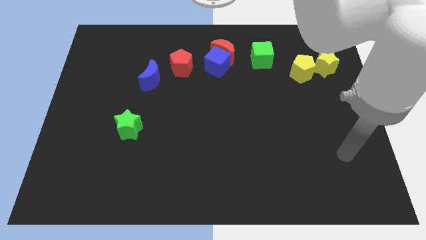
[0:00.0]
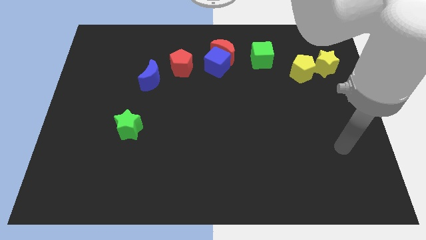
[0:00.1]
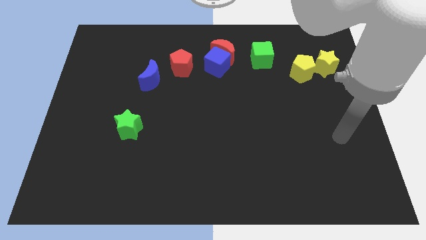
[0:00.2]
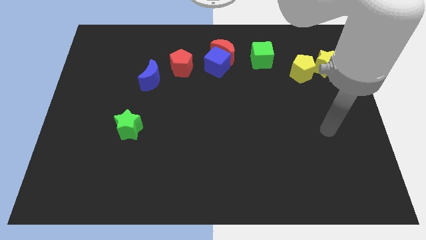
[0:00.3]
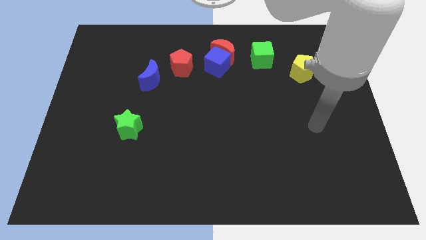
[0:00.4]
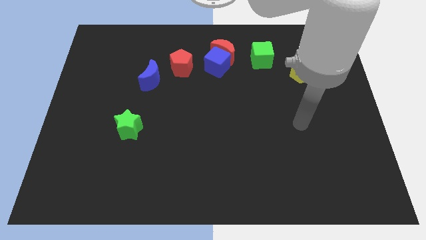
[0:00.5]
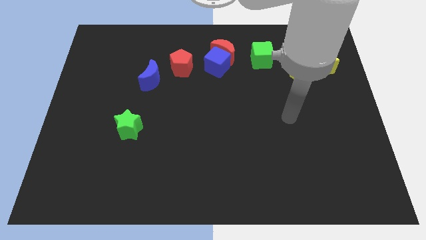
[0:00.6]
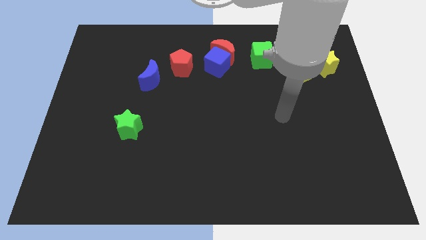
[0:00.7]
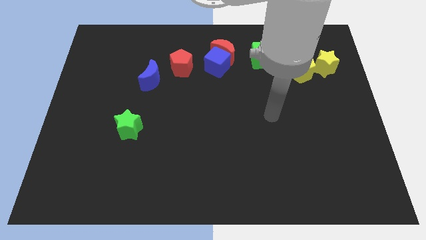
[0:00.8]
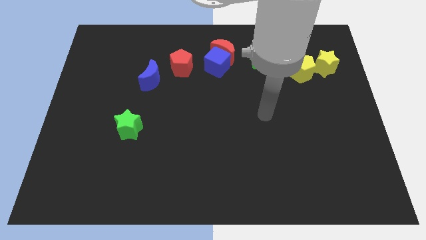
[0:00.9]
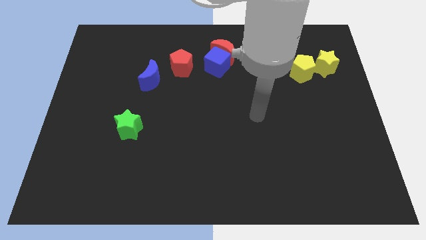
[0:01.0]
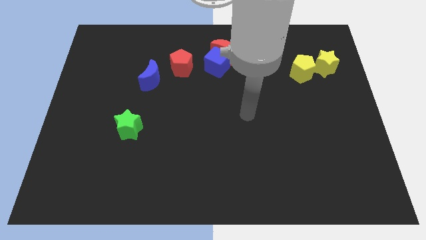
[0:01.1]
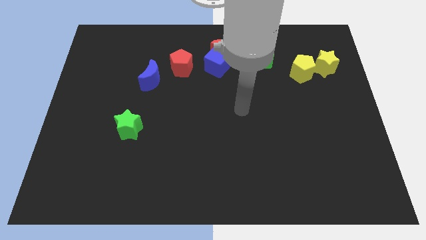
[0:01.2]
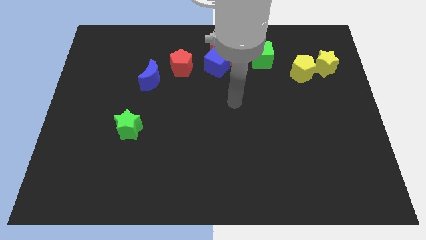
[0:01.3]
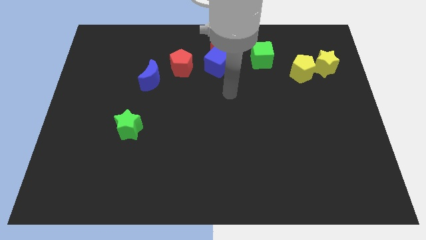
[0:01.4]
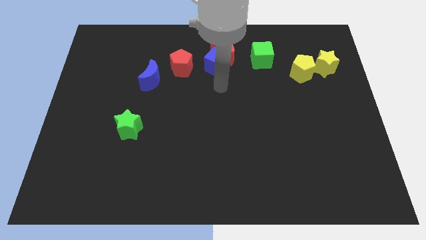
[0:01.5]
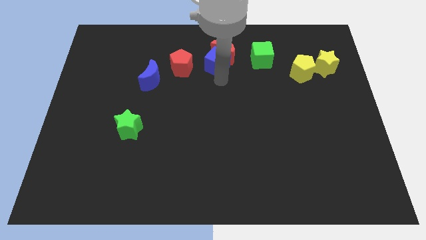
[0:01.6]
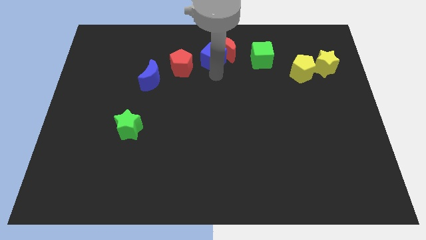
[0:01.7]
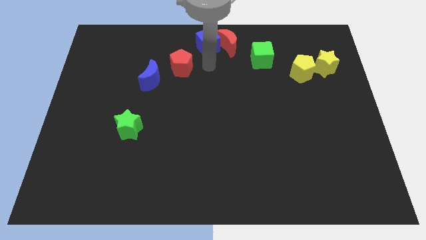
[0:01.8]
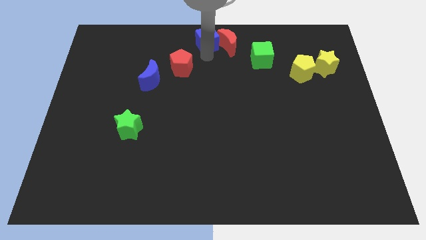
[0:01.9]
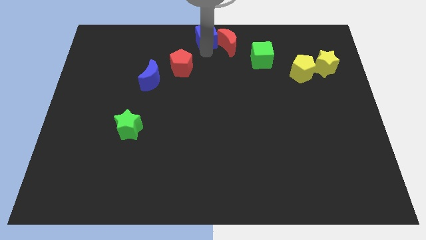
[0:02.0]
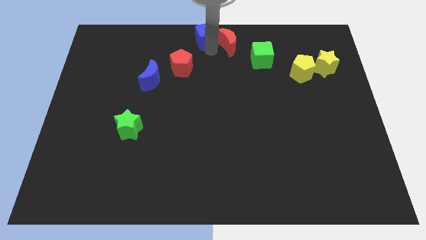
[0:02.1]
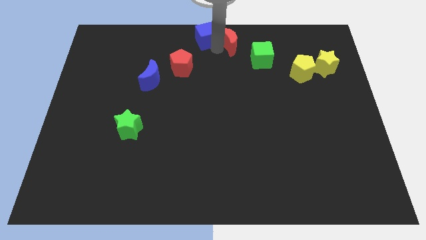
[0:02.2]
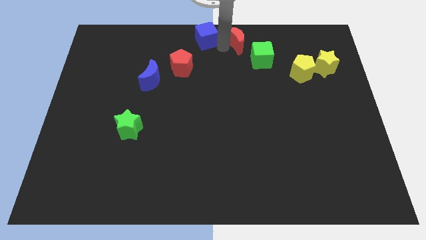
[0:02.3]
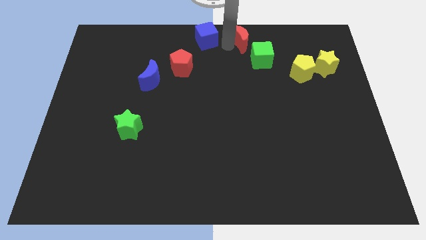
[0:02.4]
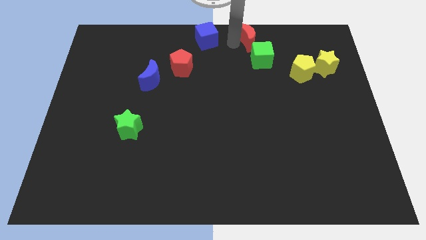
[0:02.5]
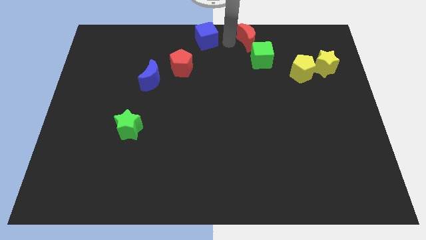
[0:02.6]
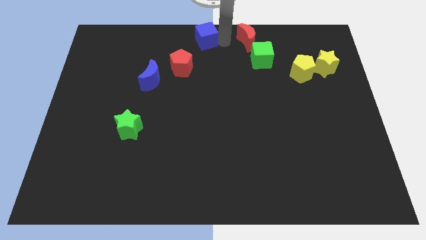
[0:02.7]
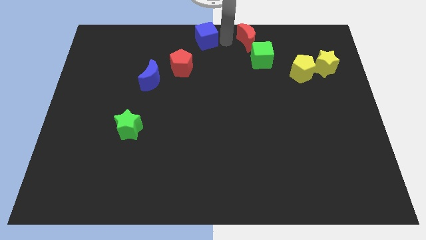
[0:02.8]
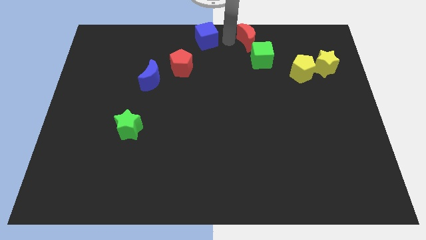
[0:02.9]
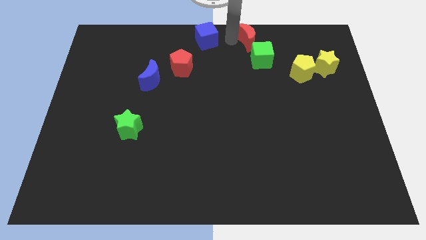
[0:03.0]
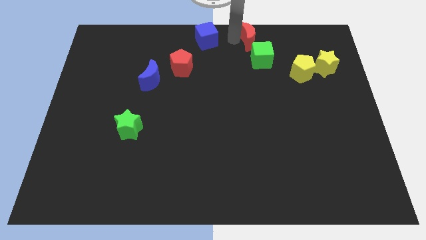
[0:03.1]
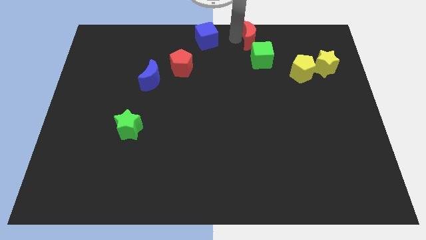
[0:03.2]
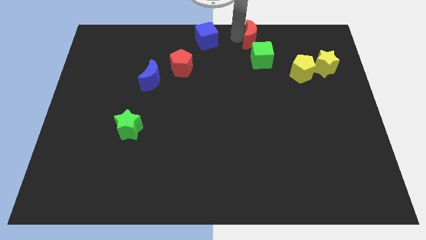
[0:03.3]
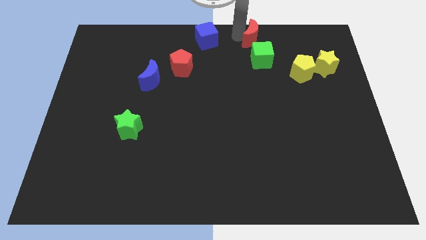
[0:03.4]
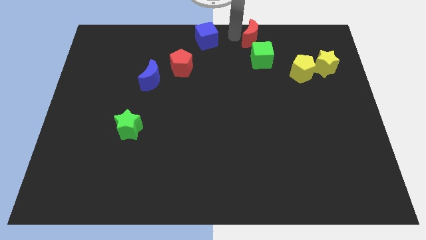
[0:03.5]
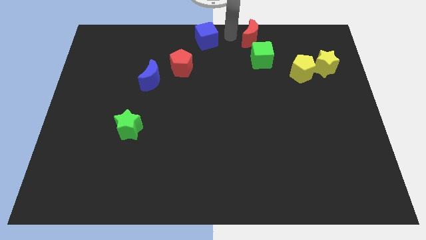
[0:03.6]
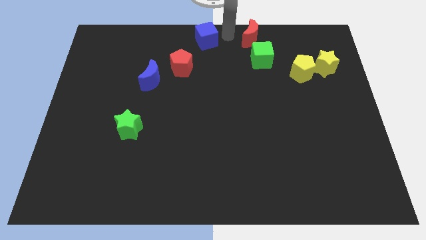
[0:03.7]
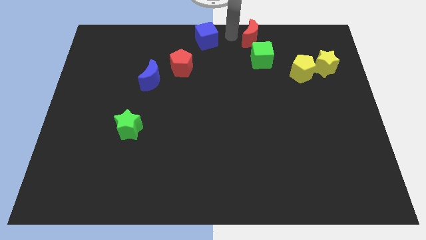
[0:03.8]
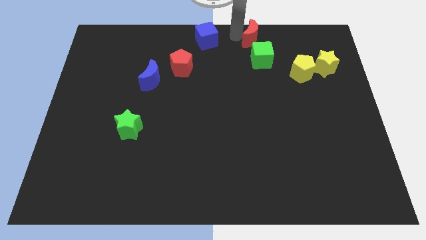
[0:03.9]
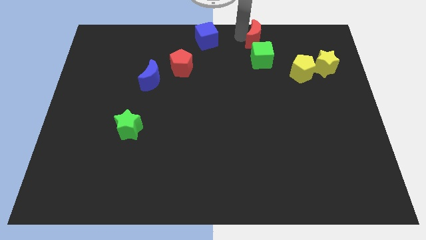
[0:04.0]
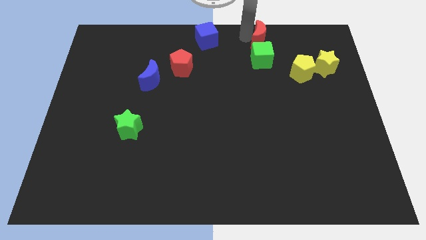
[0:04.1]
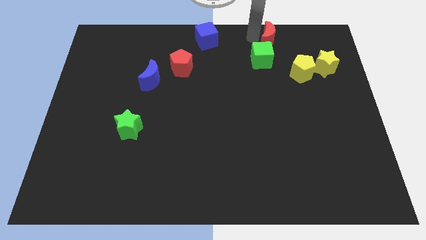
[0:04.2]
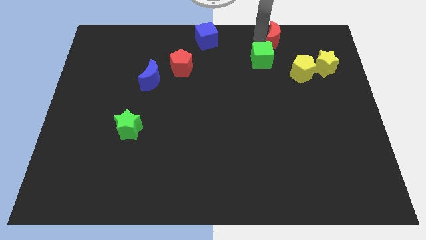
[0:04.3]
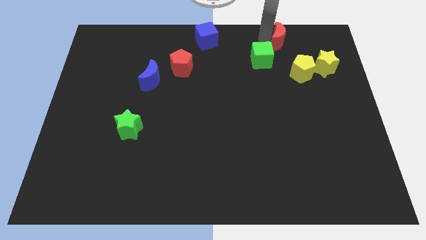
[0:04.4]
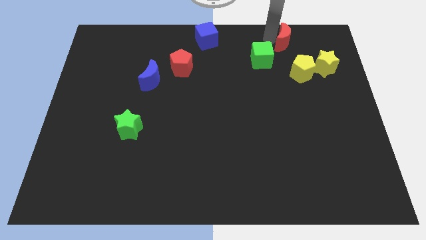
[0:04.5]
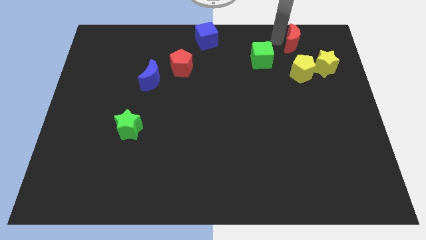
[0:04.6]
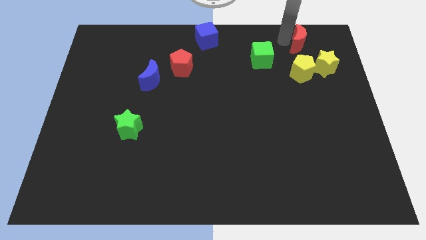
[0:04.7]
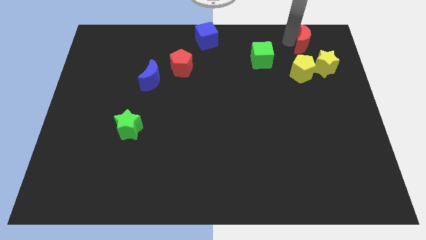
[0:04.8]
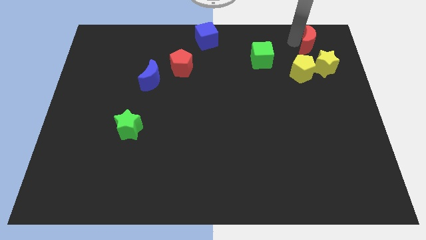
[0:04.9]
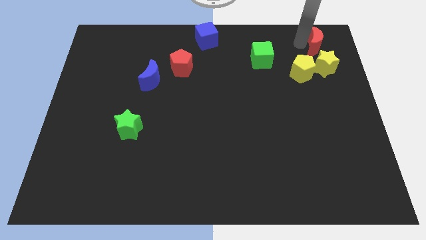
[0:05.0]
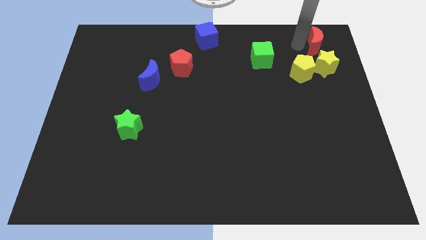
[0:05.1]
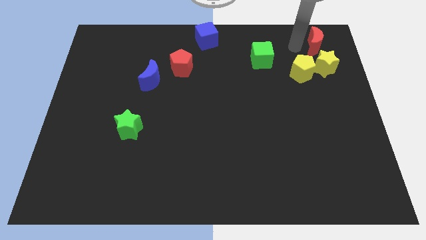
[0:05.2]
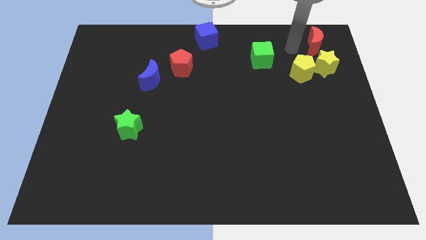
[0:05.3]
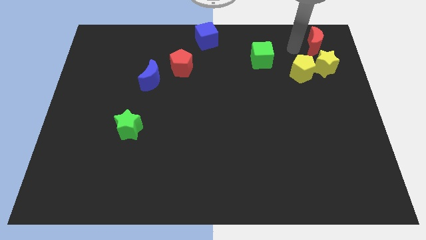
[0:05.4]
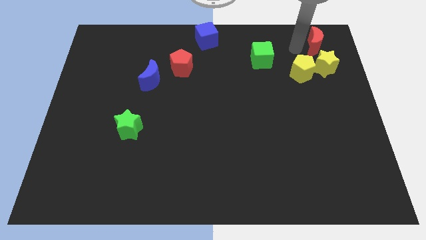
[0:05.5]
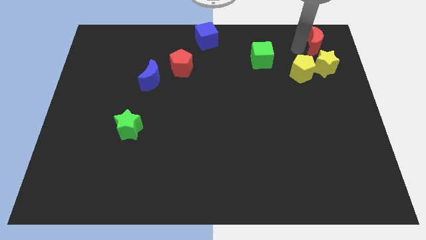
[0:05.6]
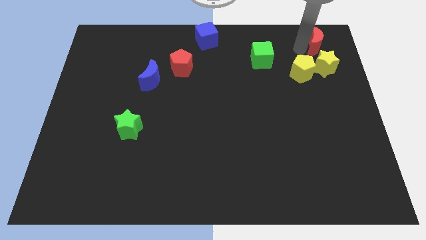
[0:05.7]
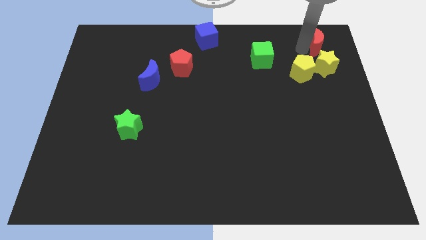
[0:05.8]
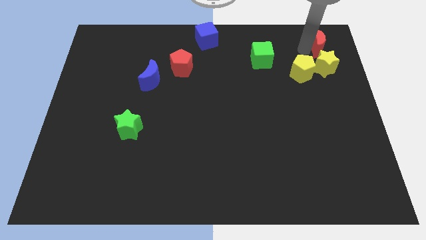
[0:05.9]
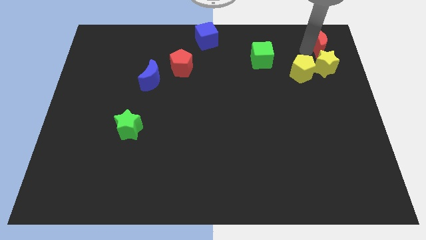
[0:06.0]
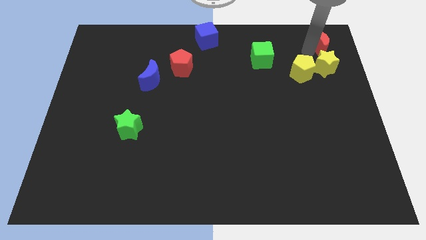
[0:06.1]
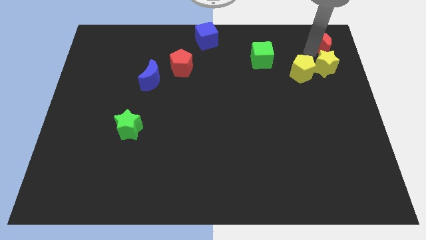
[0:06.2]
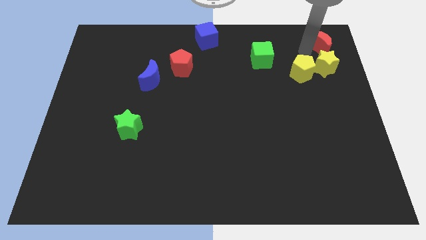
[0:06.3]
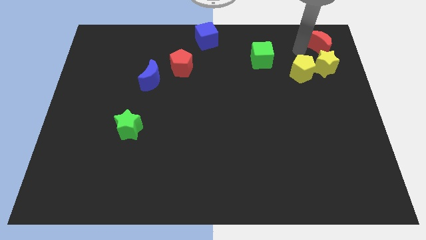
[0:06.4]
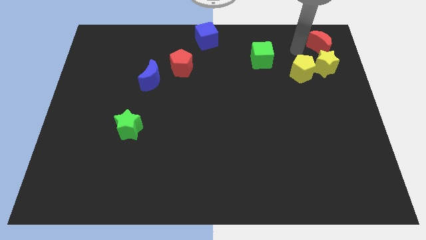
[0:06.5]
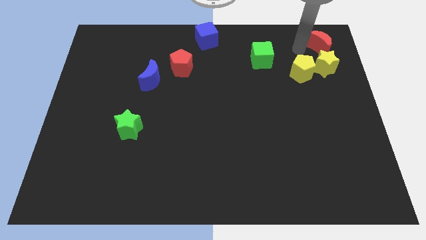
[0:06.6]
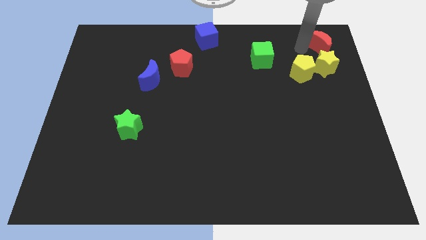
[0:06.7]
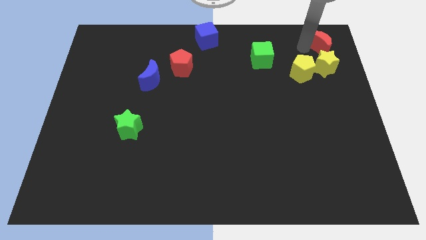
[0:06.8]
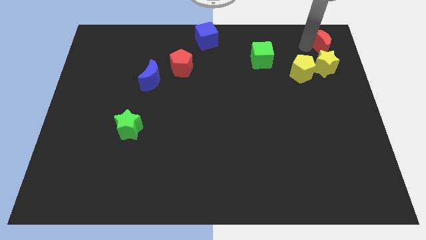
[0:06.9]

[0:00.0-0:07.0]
put the red moon to the top right of the board
